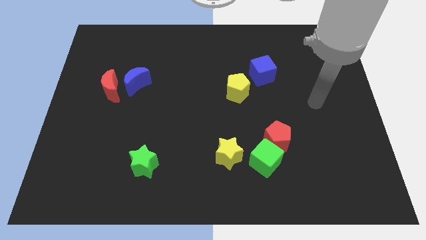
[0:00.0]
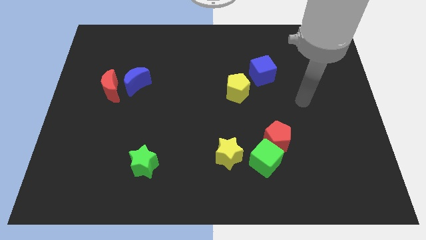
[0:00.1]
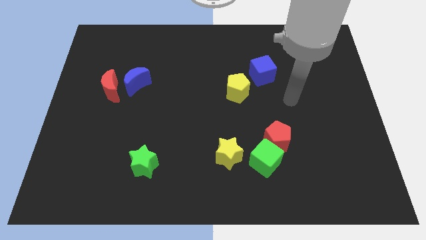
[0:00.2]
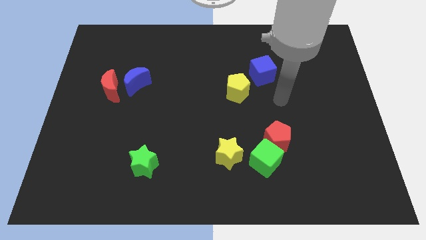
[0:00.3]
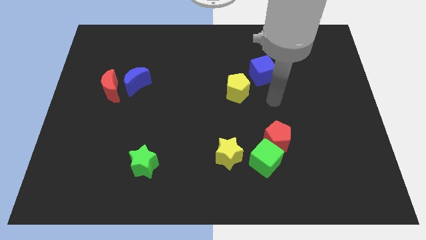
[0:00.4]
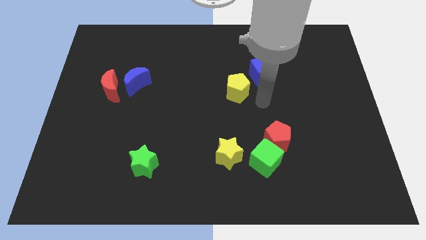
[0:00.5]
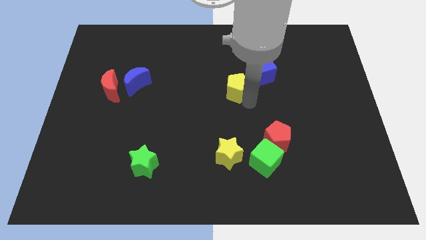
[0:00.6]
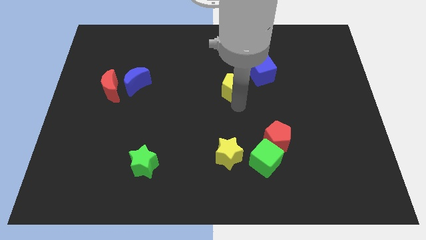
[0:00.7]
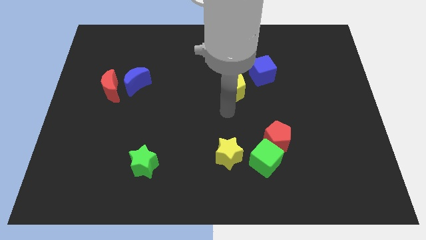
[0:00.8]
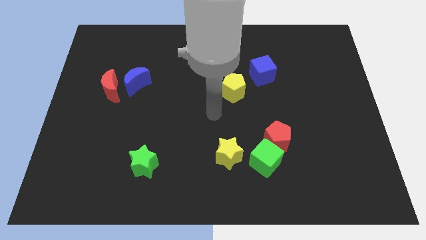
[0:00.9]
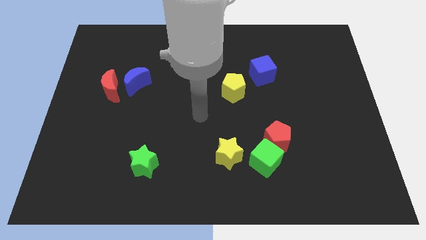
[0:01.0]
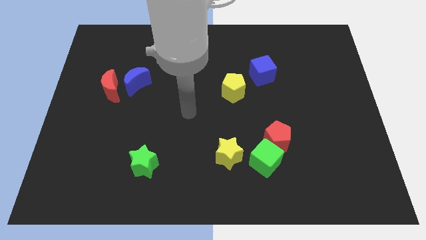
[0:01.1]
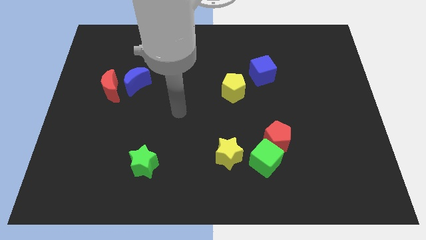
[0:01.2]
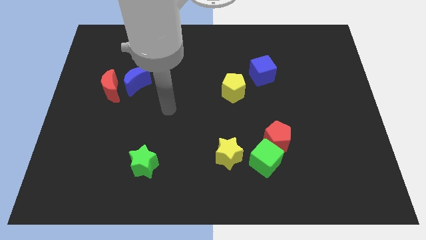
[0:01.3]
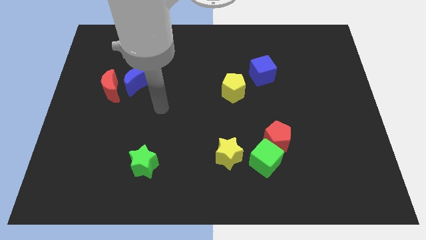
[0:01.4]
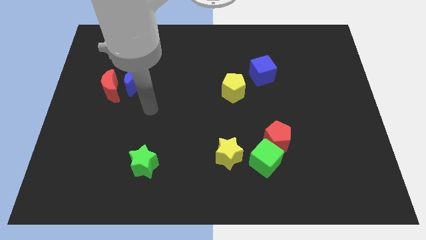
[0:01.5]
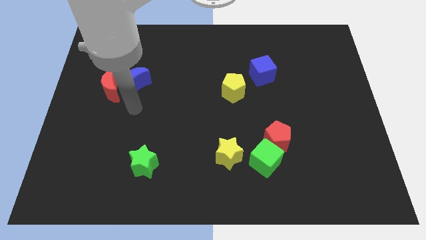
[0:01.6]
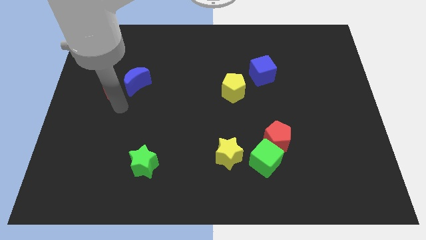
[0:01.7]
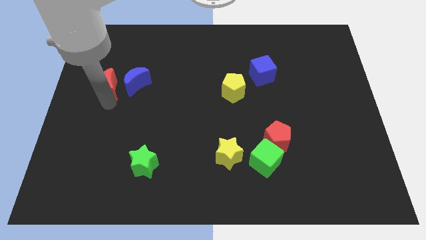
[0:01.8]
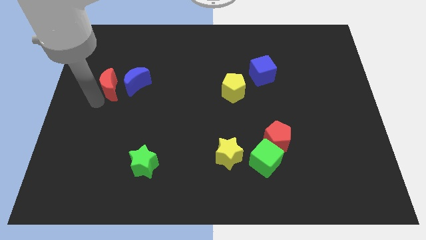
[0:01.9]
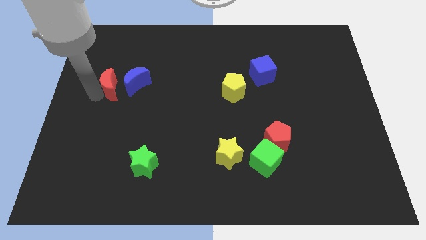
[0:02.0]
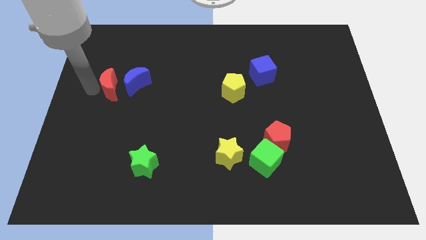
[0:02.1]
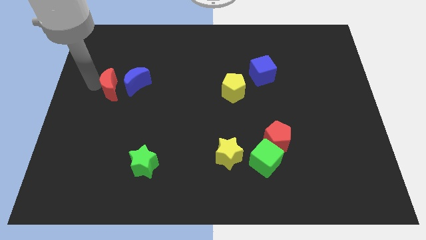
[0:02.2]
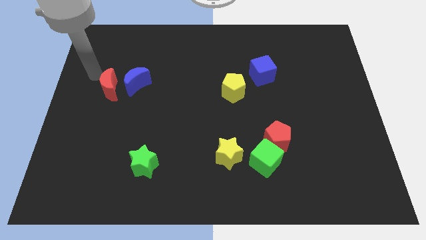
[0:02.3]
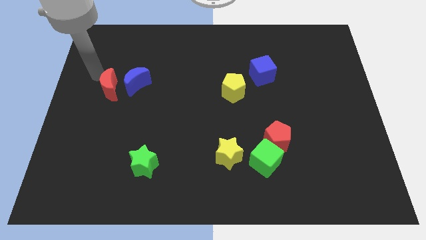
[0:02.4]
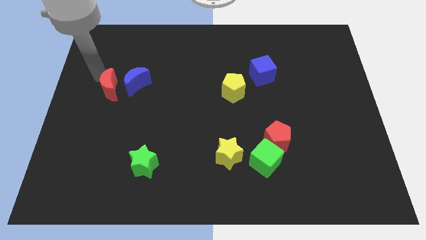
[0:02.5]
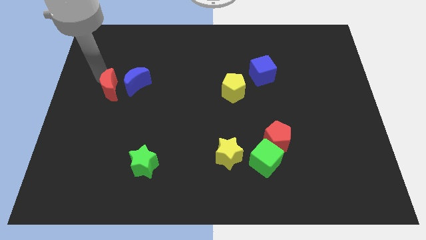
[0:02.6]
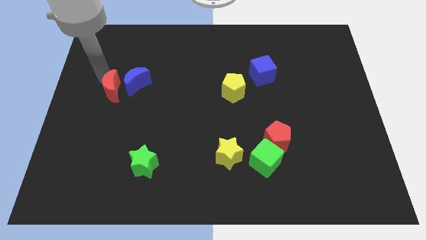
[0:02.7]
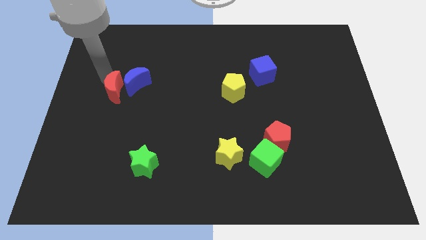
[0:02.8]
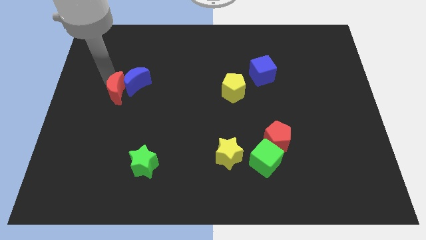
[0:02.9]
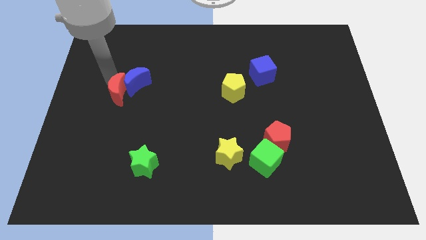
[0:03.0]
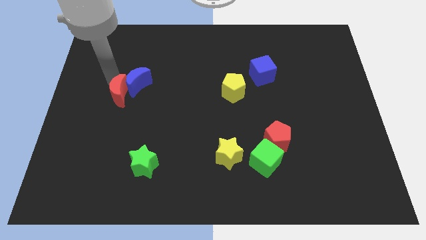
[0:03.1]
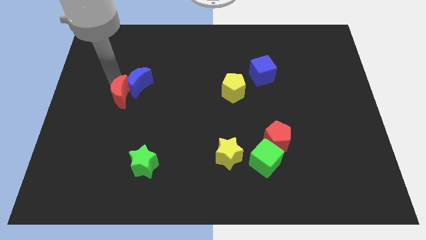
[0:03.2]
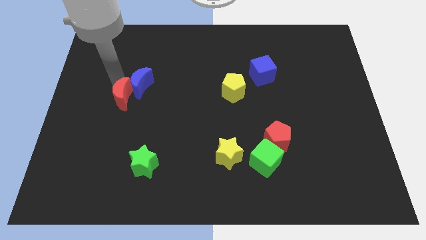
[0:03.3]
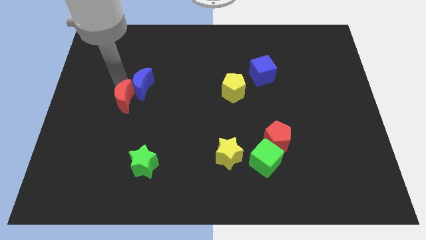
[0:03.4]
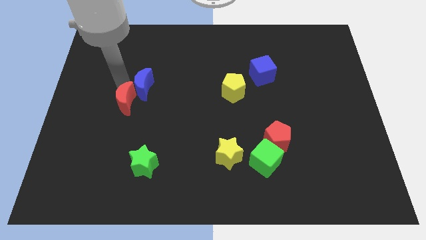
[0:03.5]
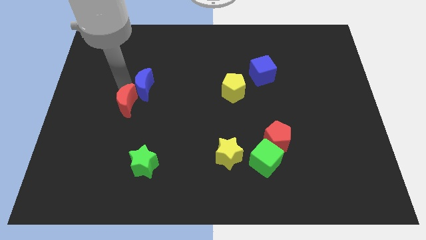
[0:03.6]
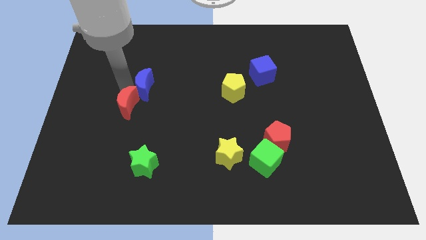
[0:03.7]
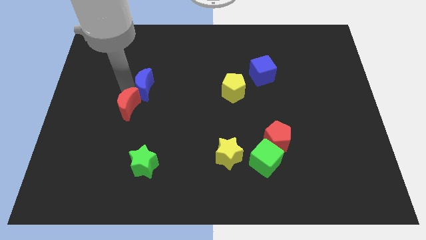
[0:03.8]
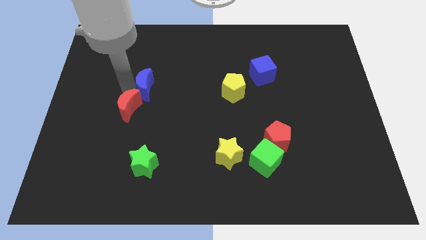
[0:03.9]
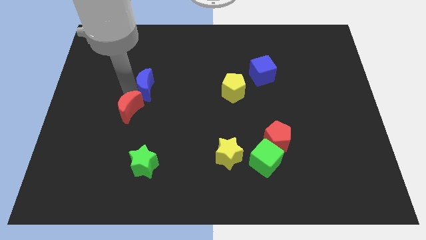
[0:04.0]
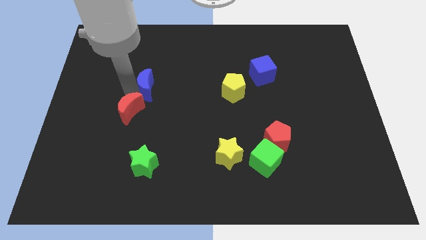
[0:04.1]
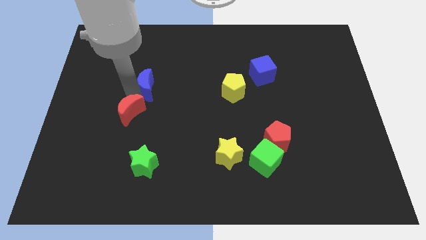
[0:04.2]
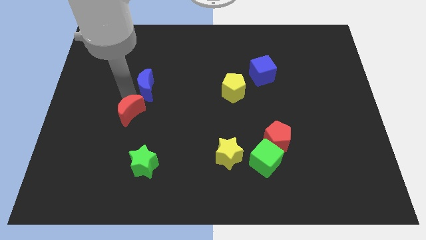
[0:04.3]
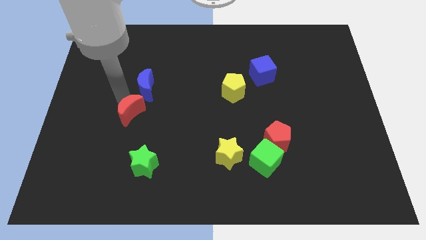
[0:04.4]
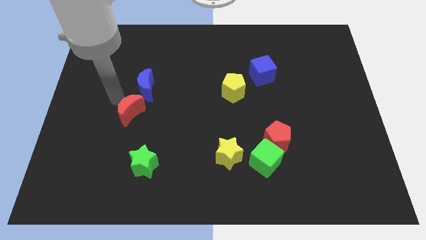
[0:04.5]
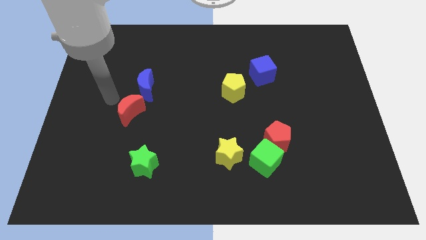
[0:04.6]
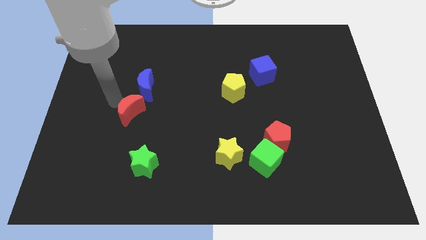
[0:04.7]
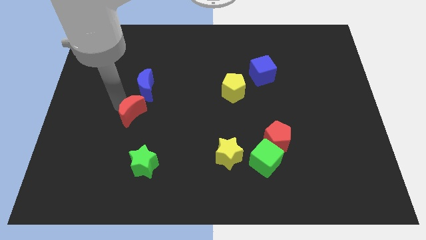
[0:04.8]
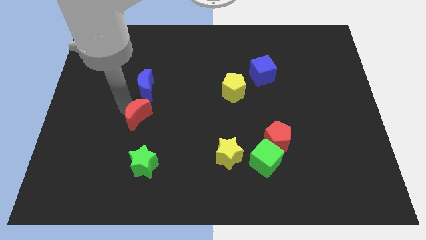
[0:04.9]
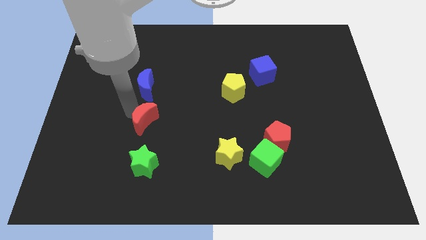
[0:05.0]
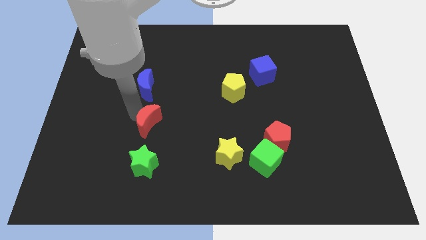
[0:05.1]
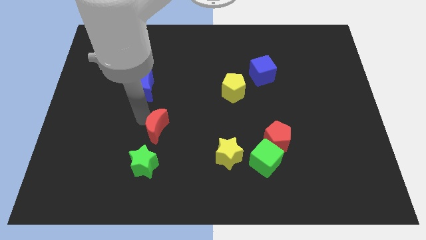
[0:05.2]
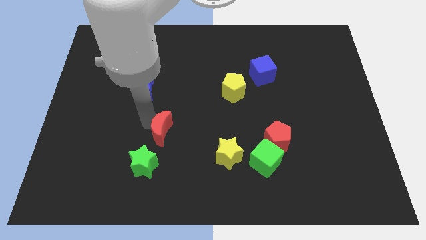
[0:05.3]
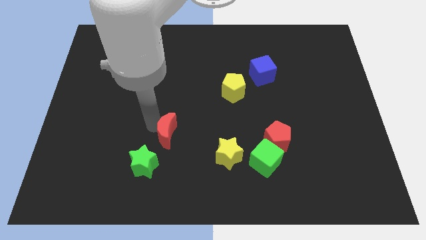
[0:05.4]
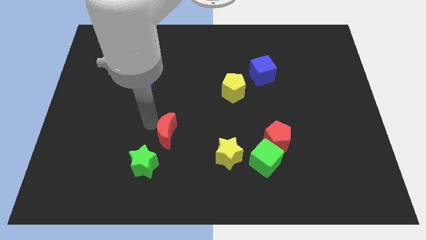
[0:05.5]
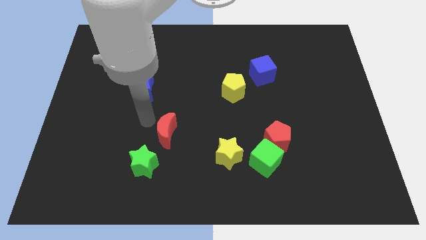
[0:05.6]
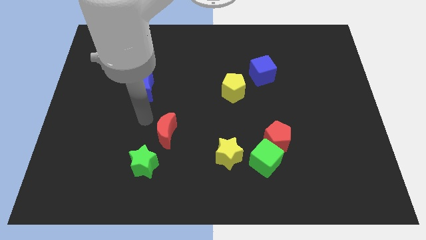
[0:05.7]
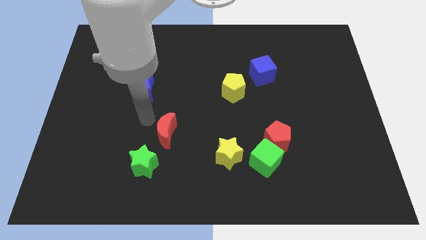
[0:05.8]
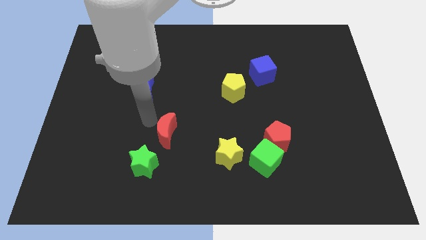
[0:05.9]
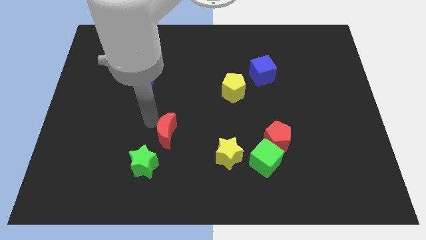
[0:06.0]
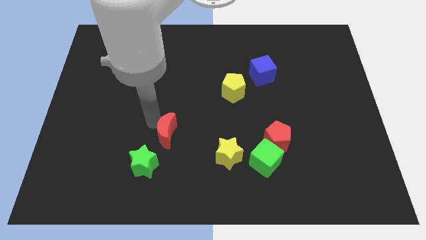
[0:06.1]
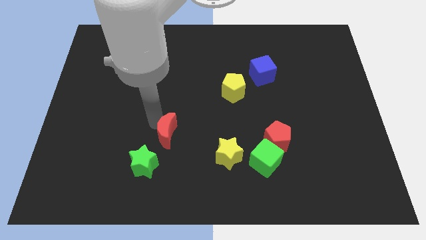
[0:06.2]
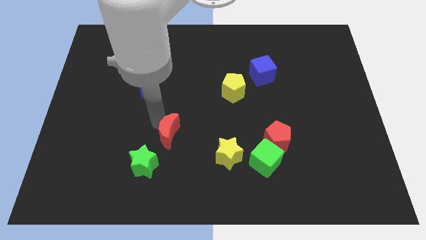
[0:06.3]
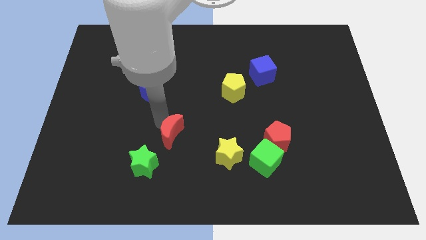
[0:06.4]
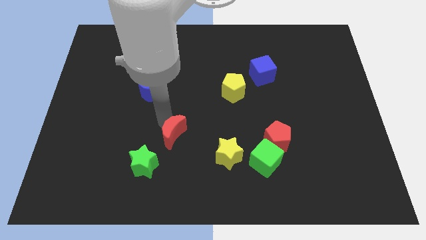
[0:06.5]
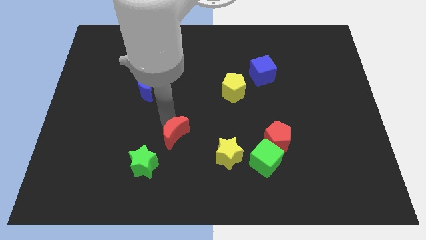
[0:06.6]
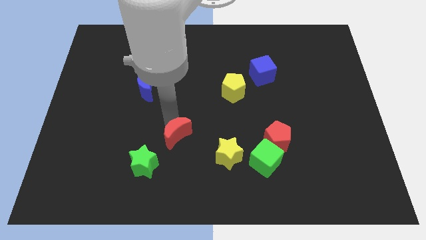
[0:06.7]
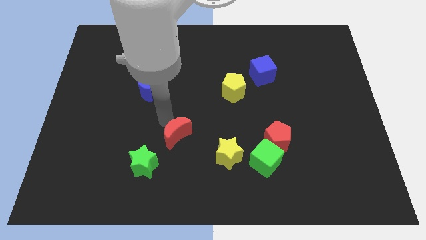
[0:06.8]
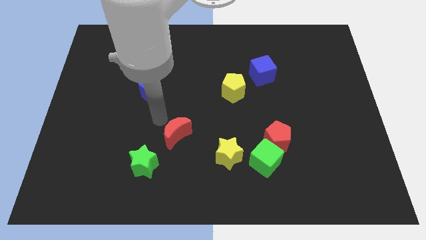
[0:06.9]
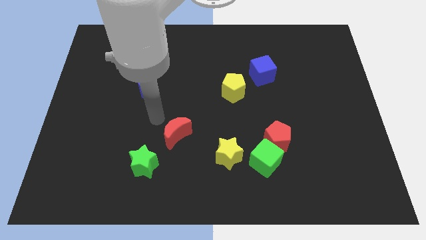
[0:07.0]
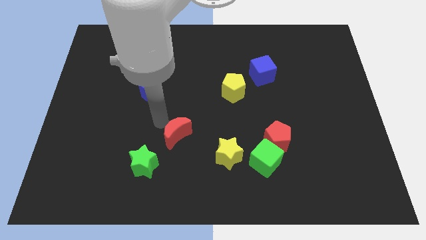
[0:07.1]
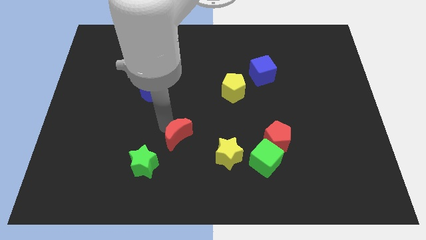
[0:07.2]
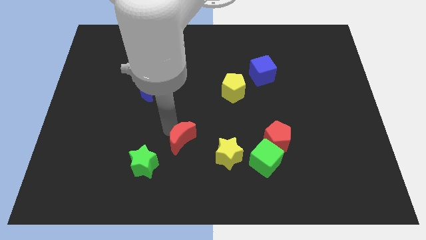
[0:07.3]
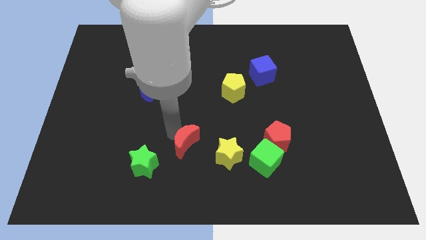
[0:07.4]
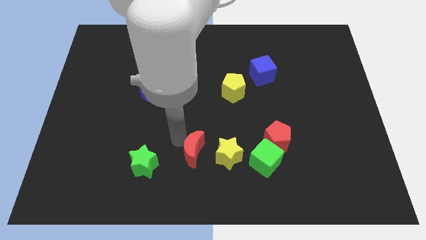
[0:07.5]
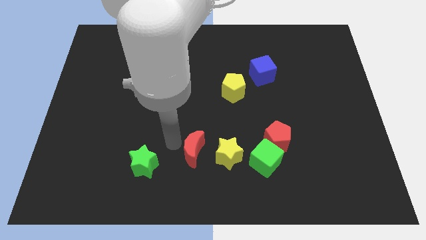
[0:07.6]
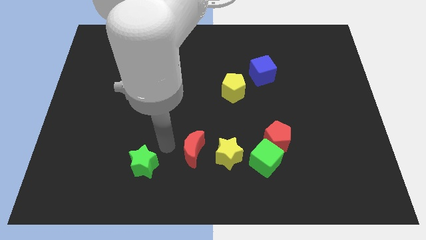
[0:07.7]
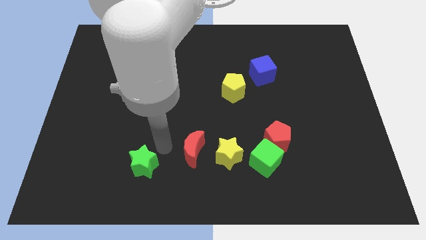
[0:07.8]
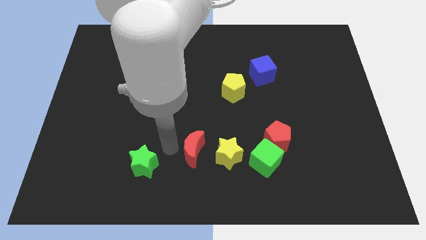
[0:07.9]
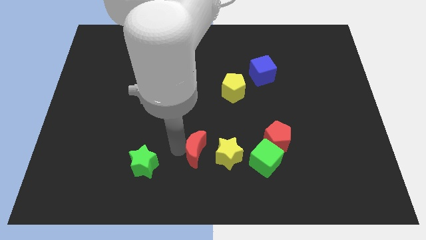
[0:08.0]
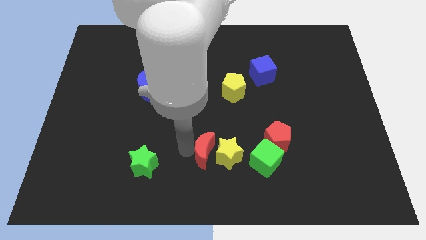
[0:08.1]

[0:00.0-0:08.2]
move the red moon to the yellow star

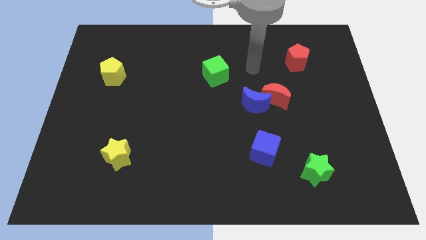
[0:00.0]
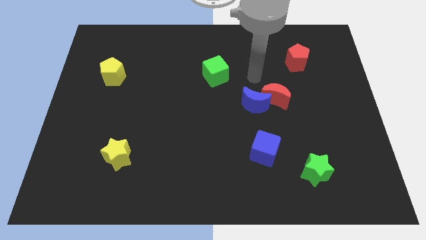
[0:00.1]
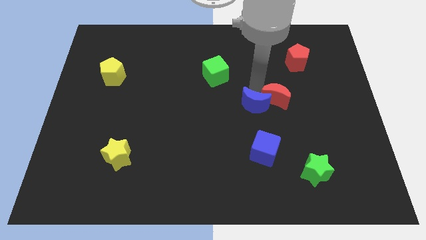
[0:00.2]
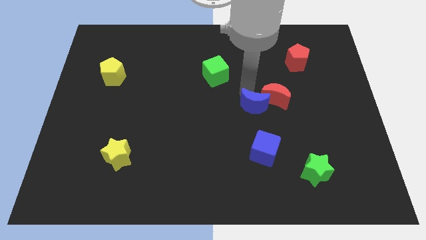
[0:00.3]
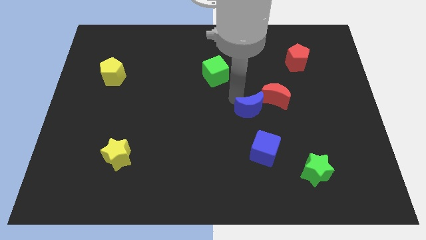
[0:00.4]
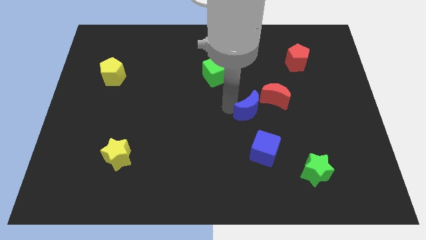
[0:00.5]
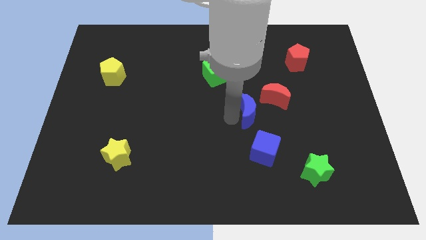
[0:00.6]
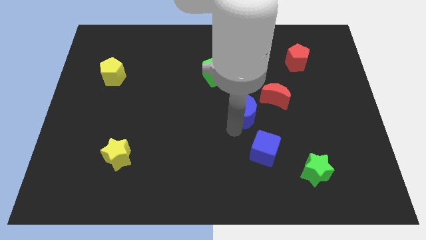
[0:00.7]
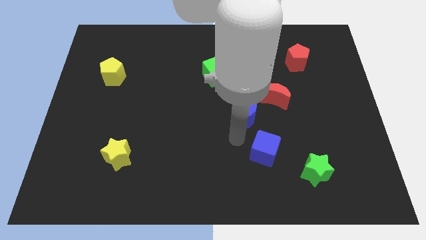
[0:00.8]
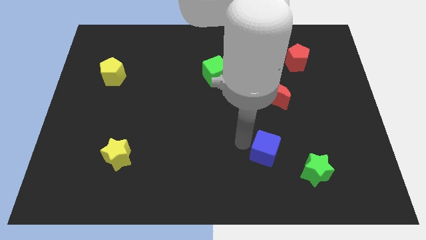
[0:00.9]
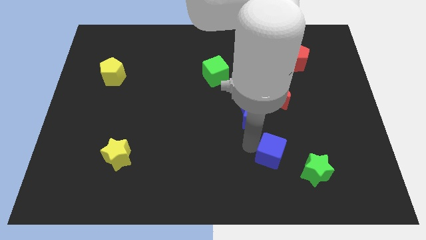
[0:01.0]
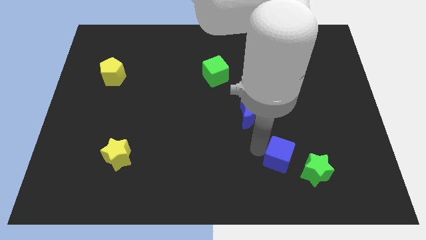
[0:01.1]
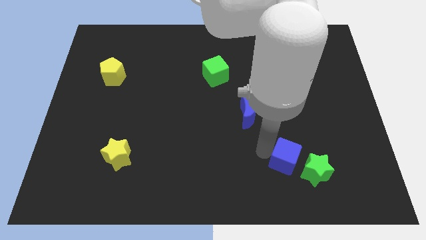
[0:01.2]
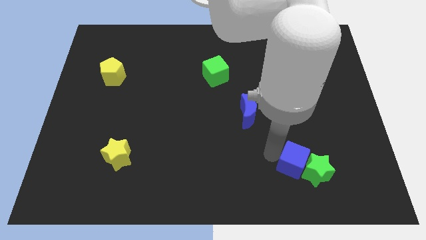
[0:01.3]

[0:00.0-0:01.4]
slide the blue cube towards the green star
